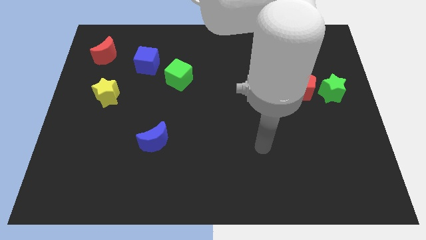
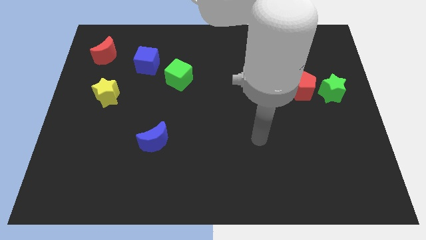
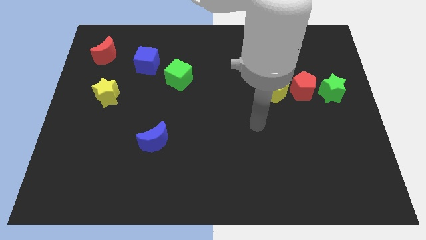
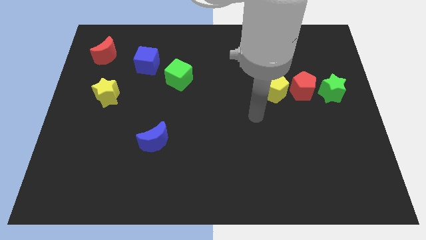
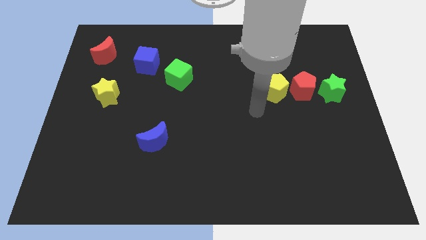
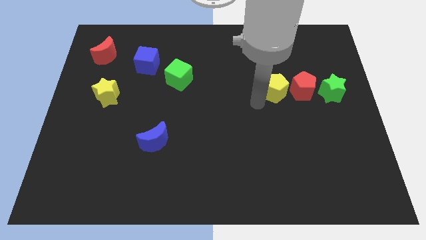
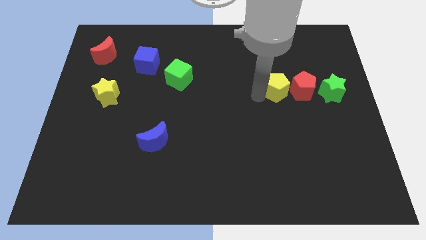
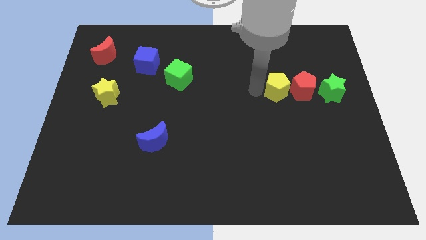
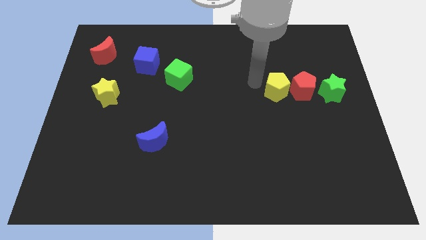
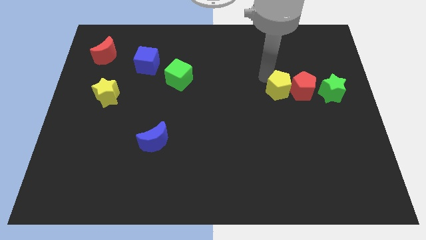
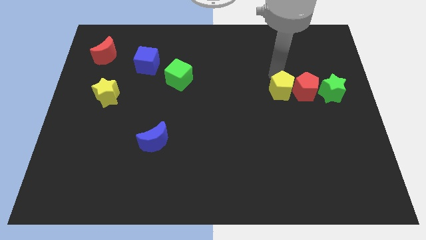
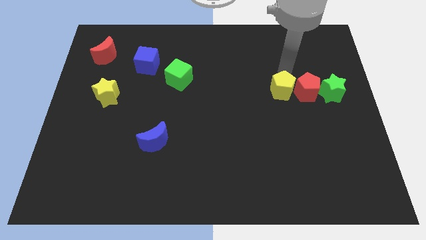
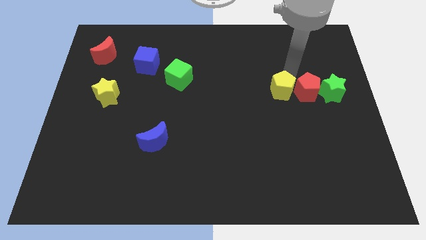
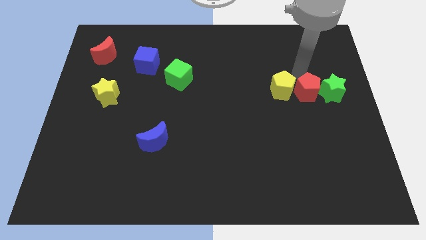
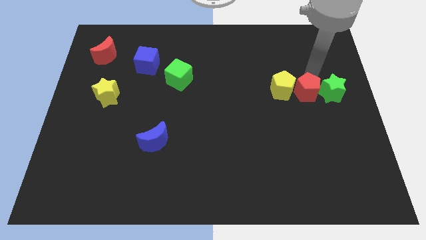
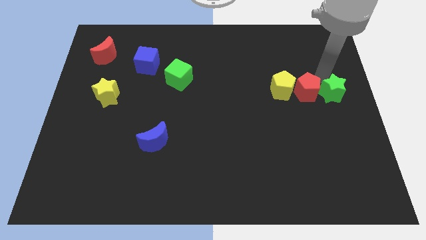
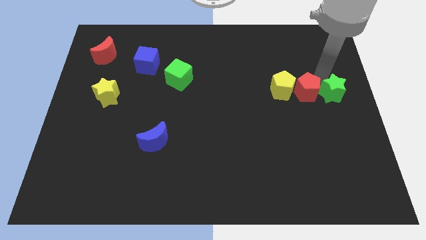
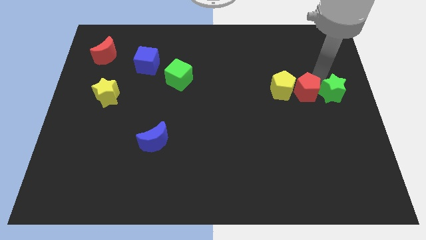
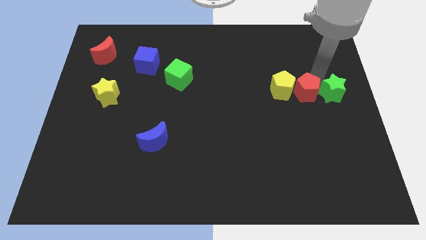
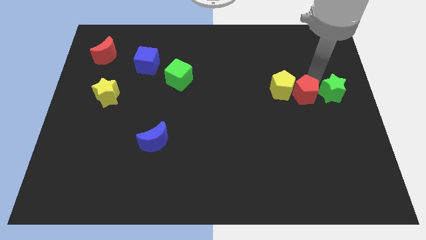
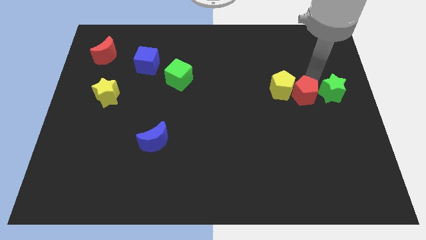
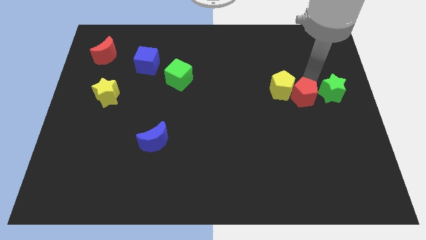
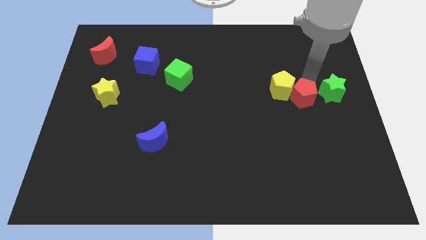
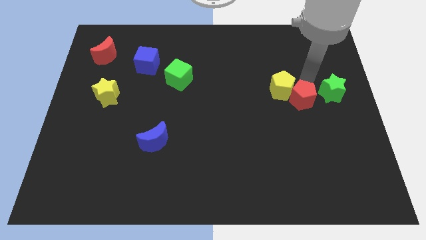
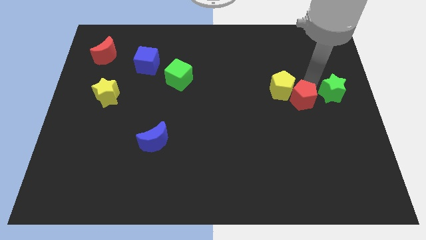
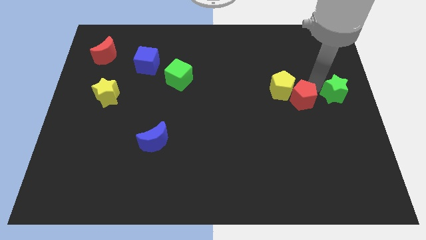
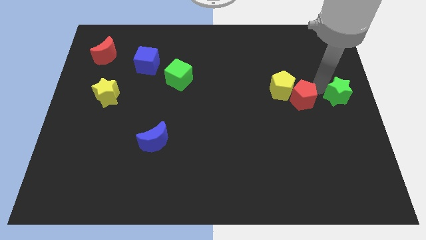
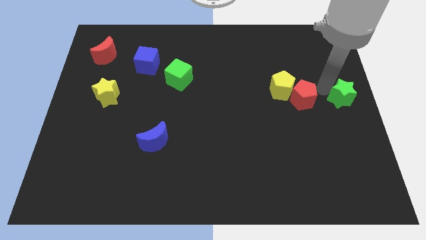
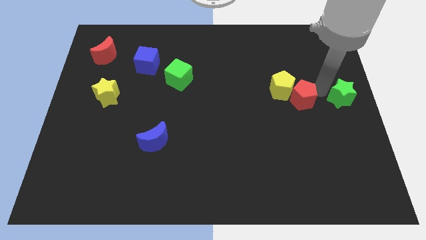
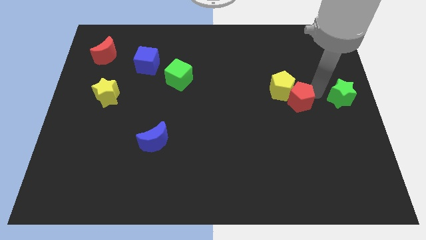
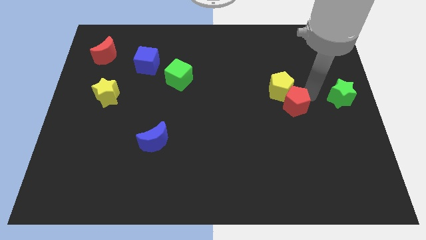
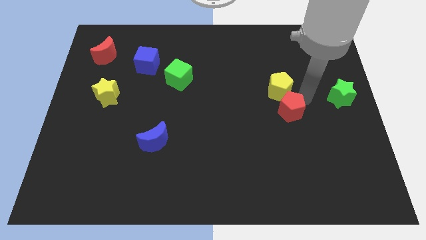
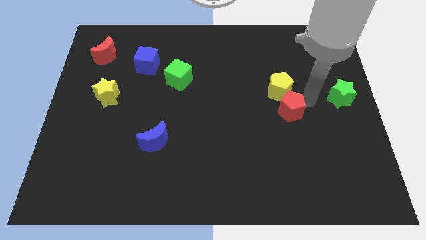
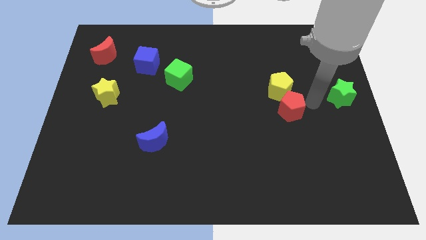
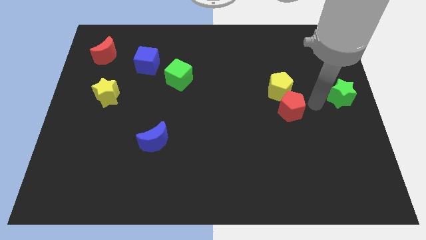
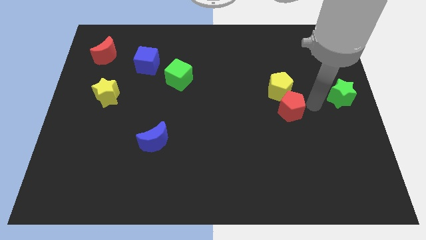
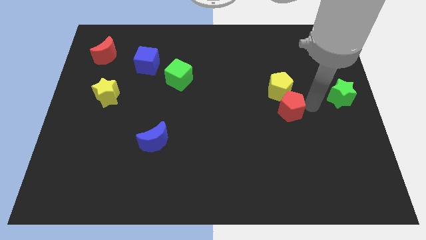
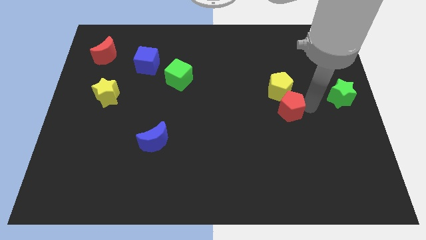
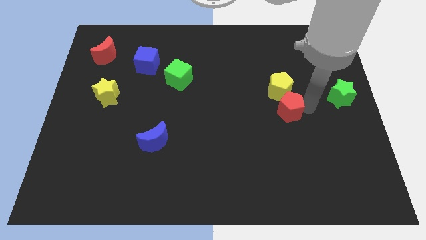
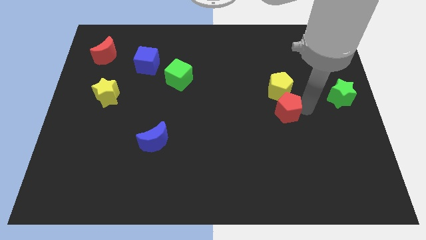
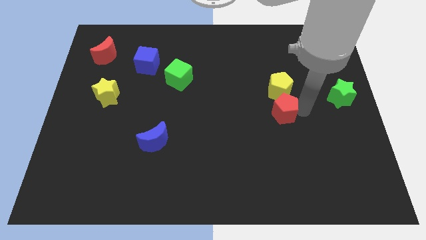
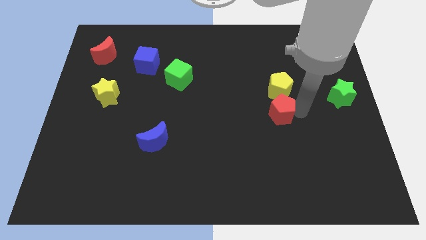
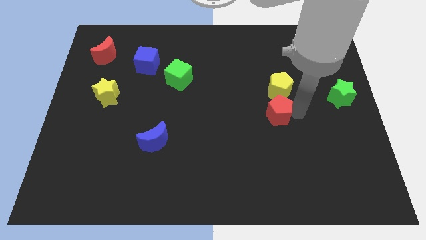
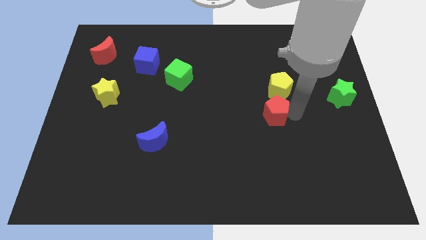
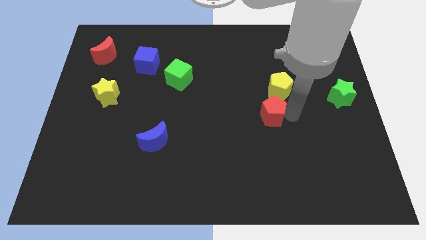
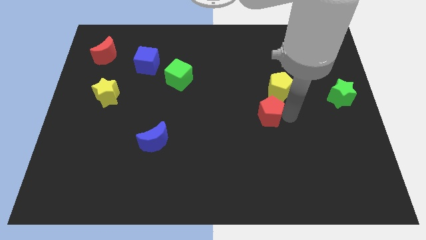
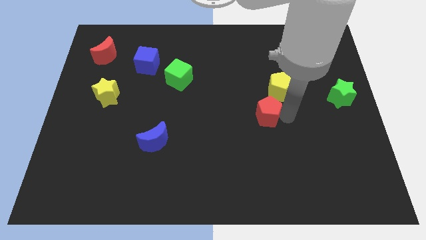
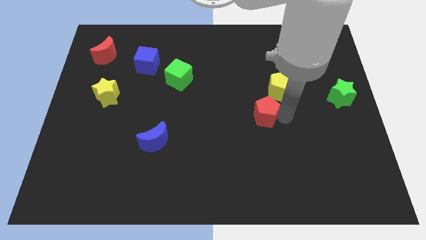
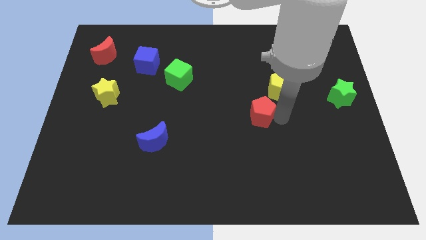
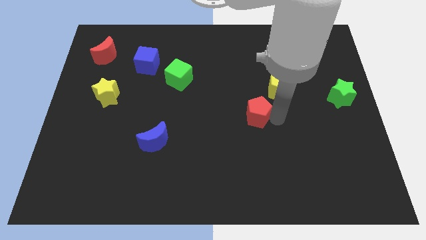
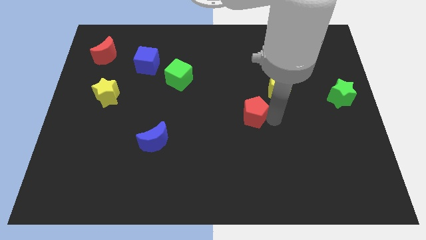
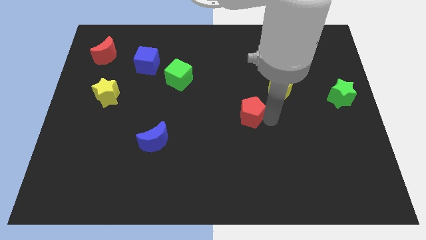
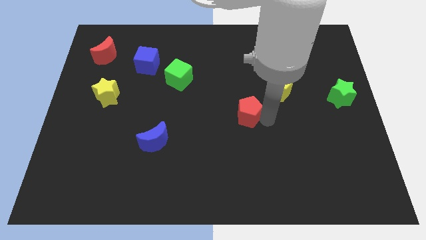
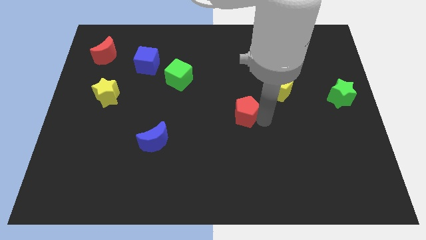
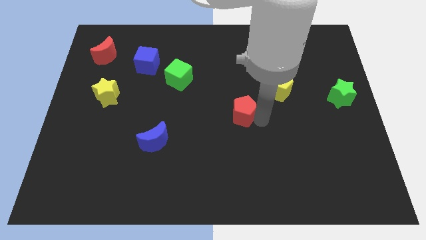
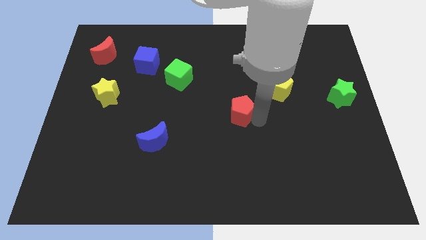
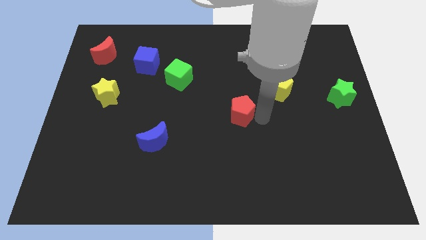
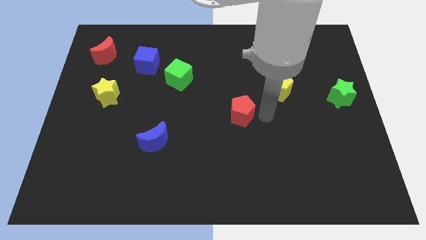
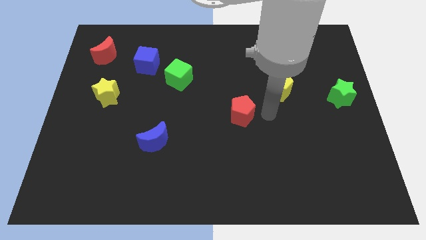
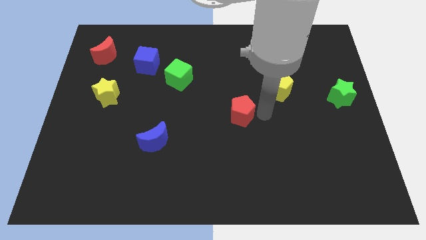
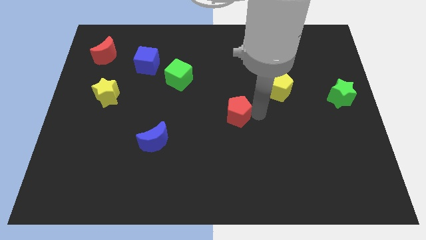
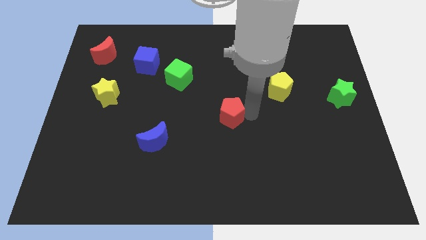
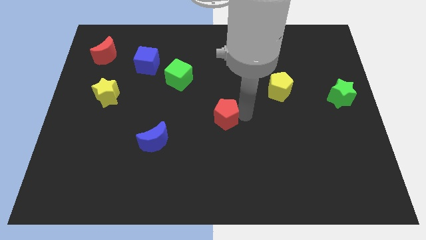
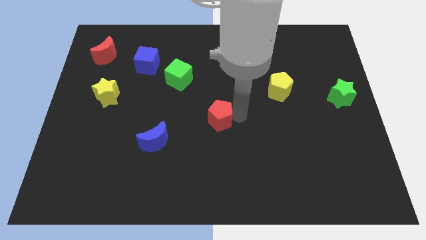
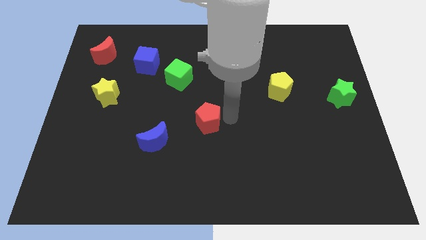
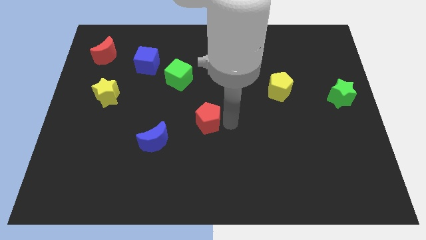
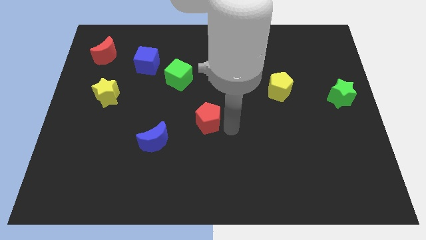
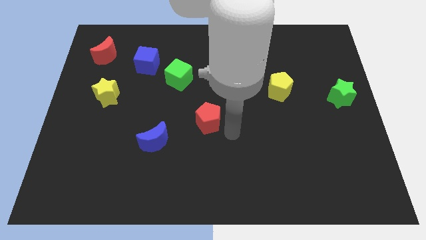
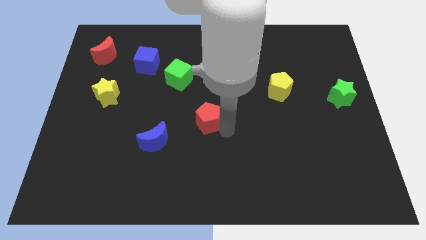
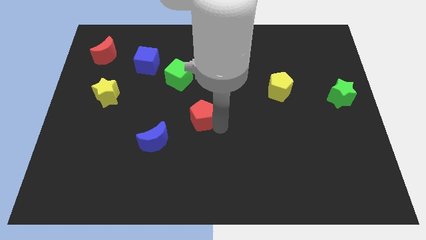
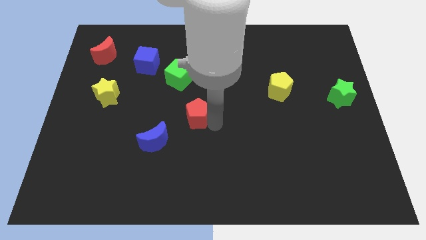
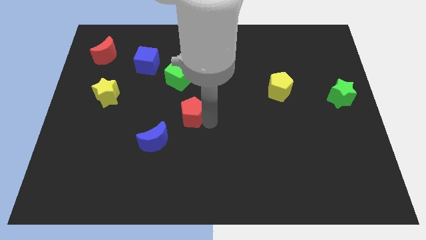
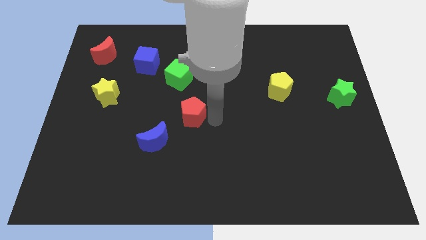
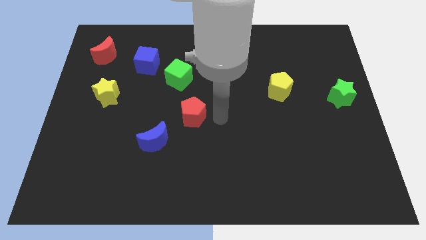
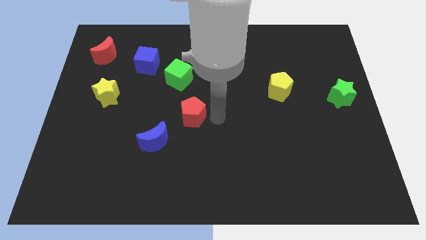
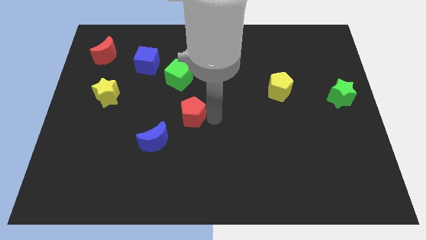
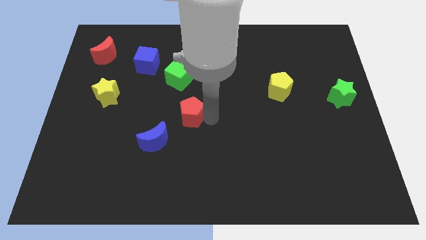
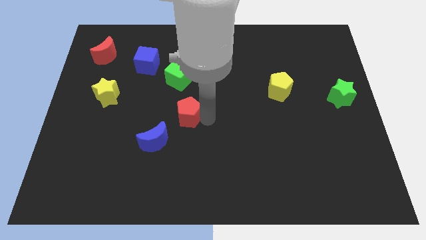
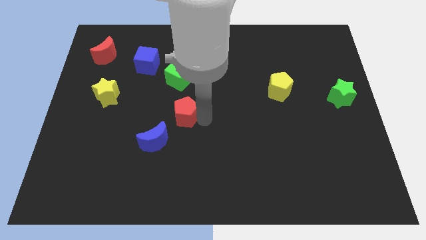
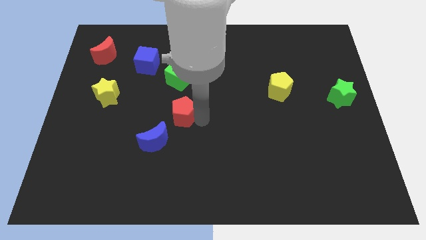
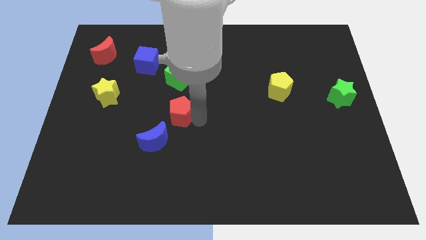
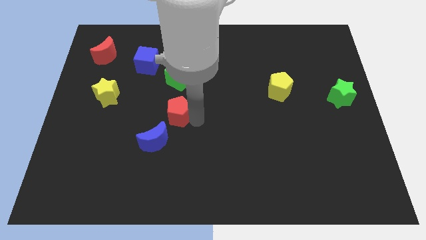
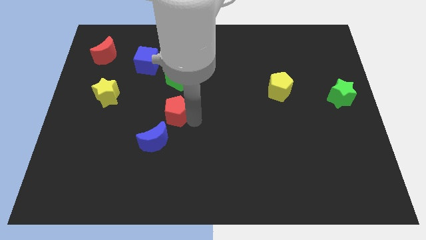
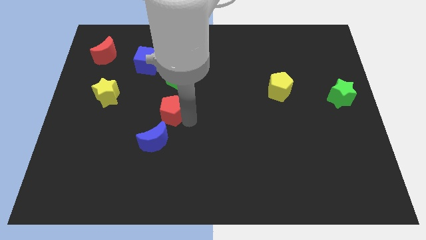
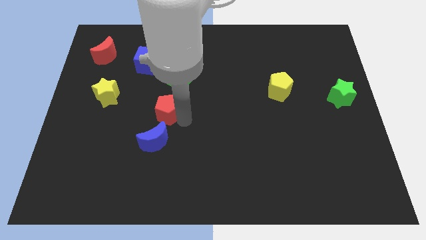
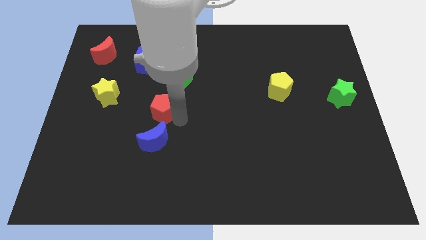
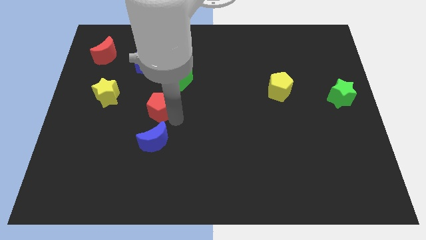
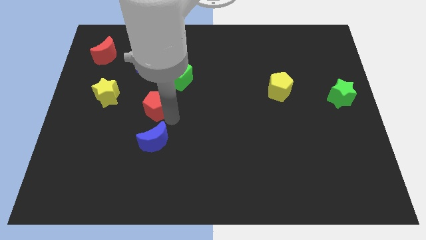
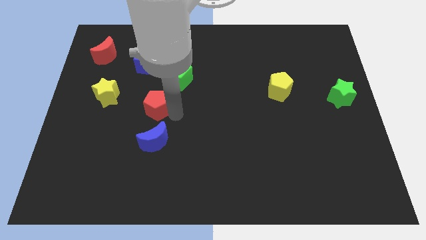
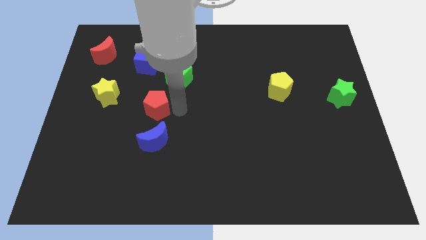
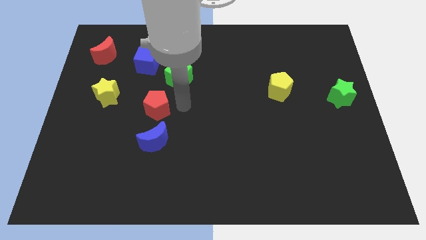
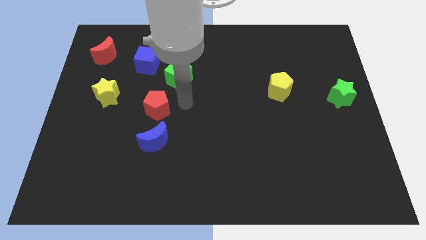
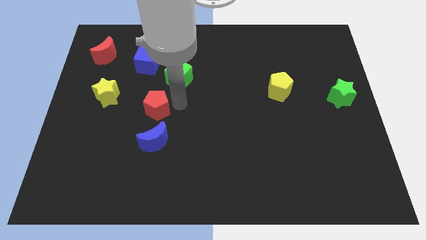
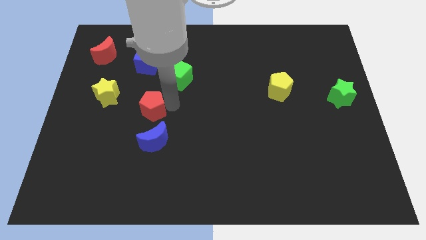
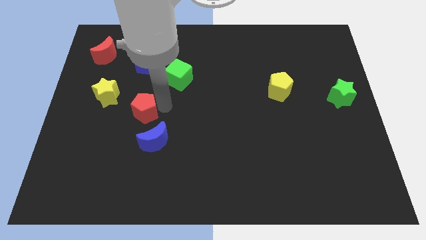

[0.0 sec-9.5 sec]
put the red pentagon to the bottom right side of the yellow star
